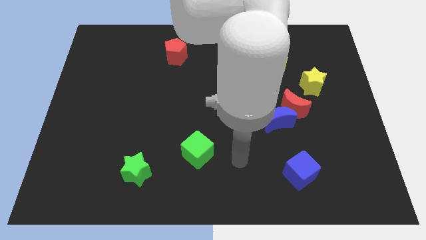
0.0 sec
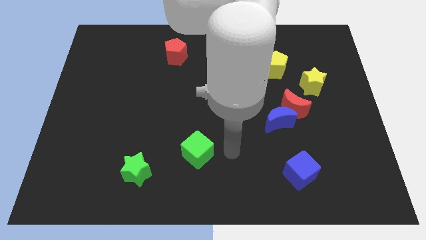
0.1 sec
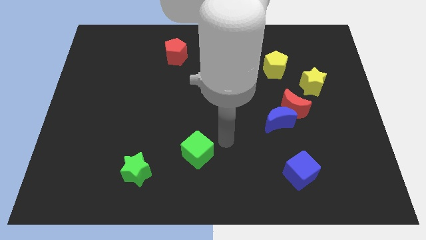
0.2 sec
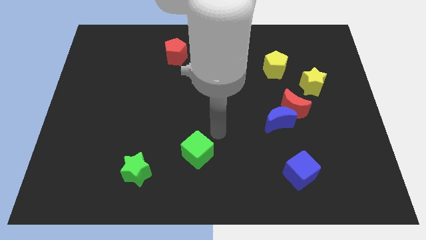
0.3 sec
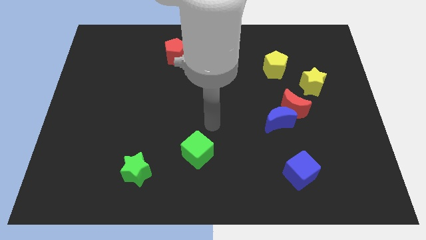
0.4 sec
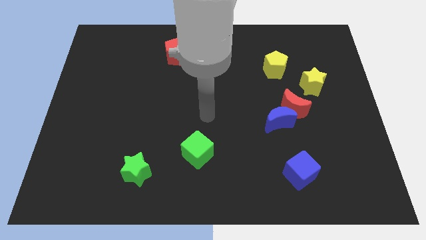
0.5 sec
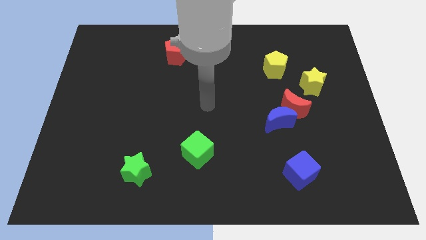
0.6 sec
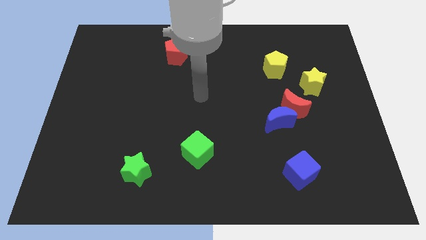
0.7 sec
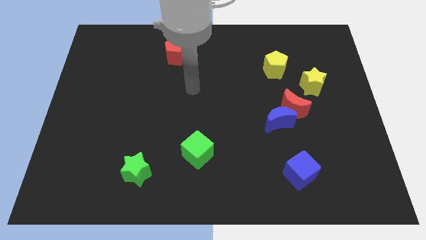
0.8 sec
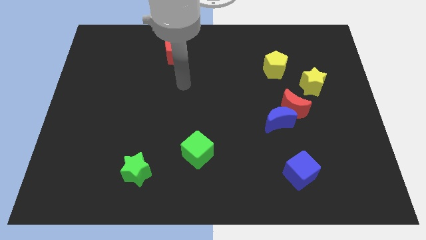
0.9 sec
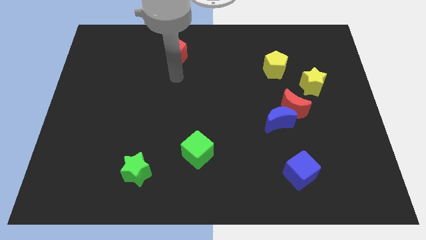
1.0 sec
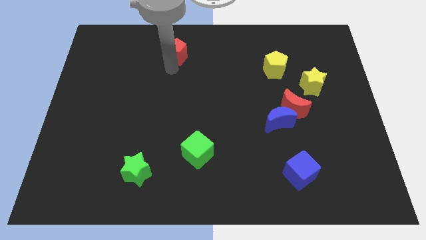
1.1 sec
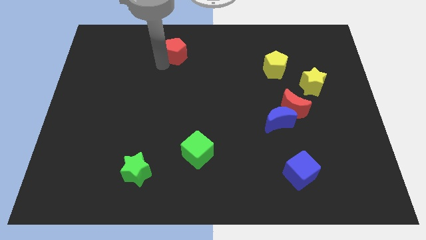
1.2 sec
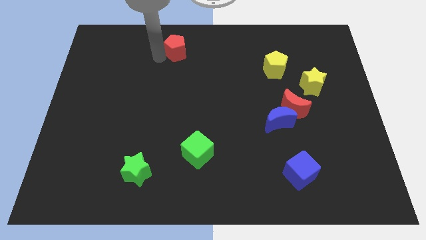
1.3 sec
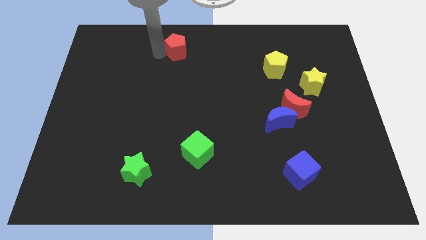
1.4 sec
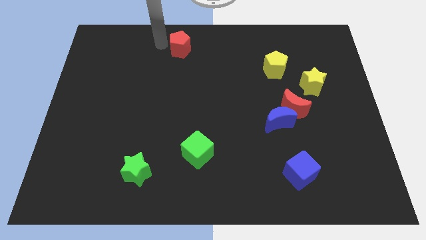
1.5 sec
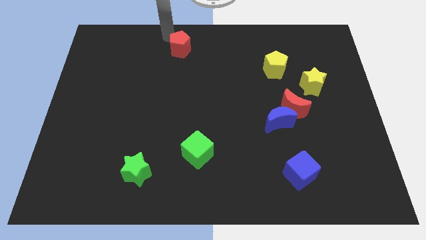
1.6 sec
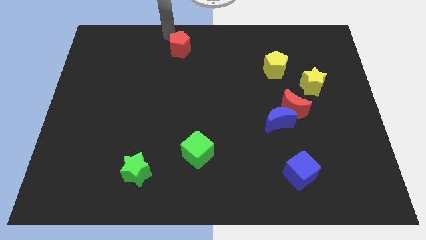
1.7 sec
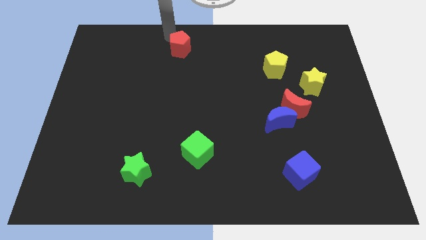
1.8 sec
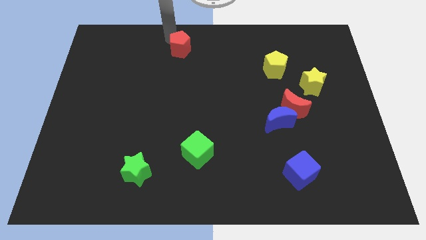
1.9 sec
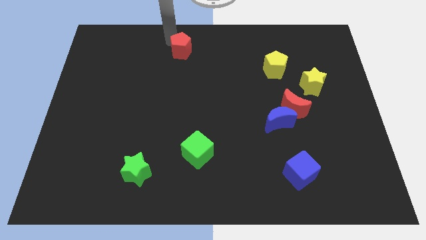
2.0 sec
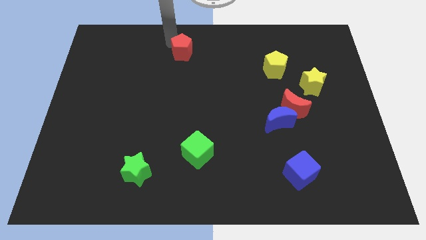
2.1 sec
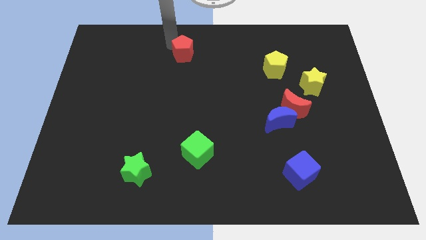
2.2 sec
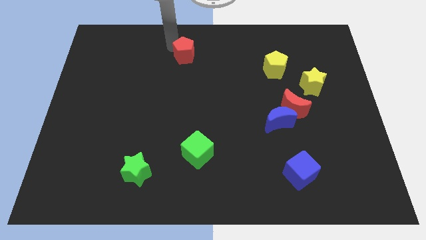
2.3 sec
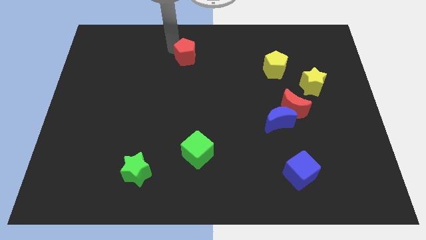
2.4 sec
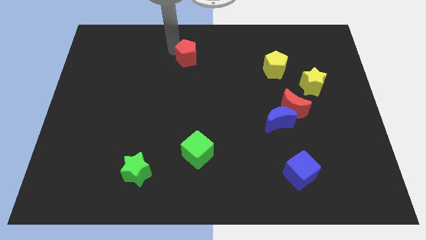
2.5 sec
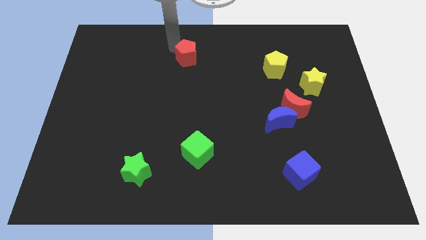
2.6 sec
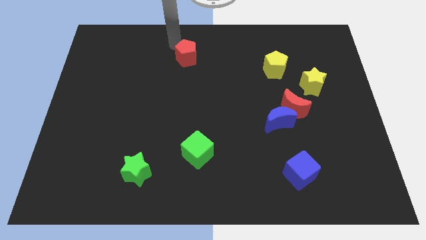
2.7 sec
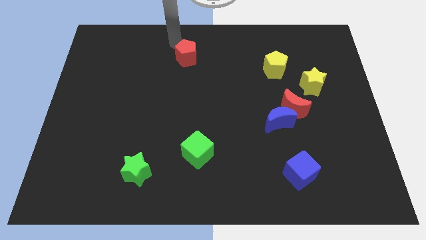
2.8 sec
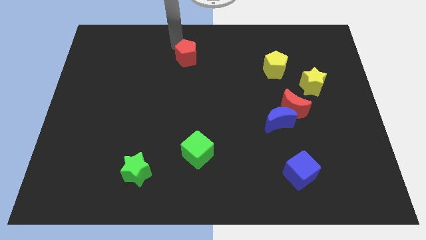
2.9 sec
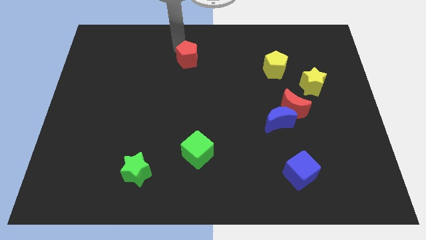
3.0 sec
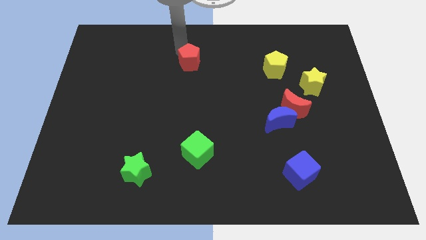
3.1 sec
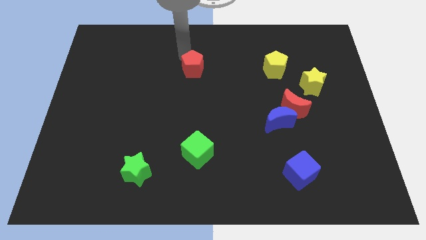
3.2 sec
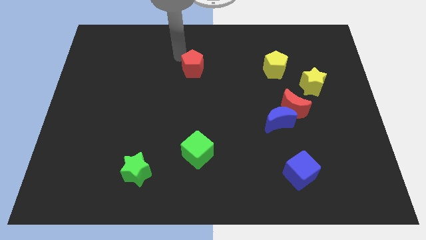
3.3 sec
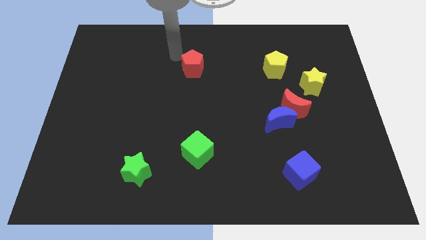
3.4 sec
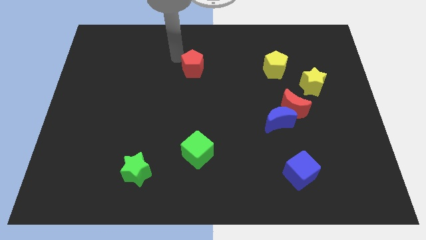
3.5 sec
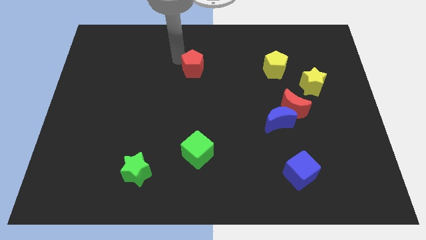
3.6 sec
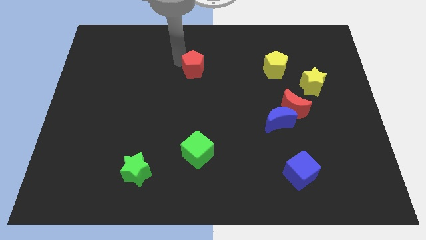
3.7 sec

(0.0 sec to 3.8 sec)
slide the red pentagon downwards and to the right somewhat

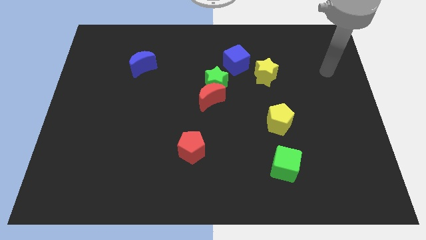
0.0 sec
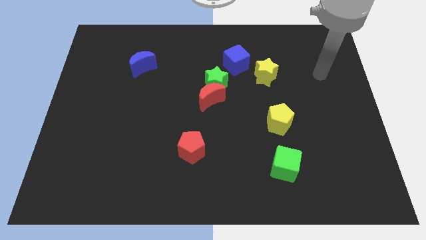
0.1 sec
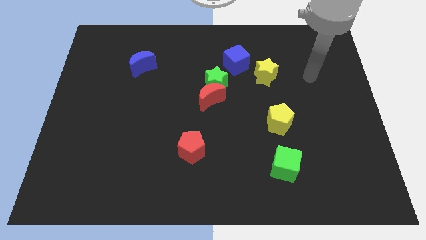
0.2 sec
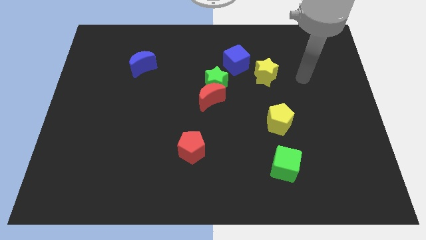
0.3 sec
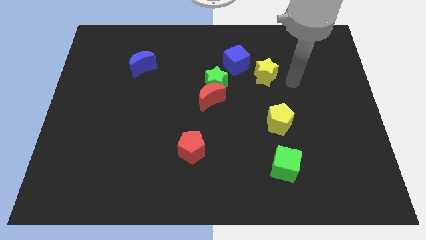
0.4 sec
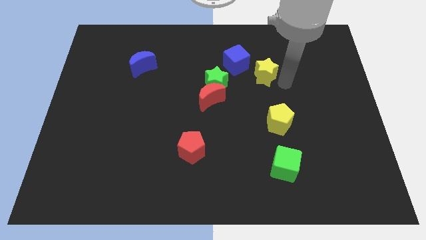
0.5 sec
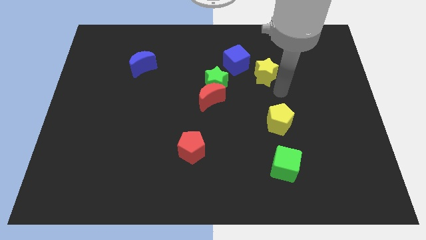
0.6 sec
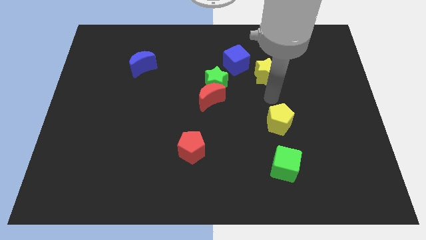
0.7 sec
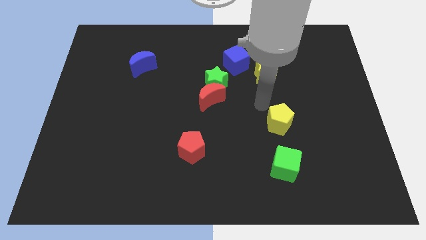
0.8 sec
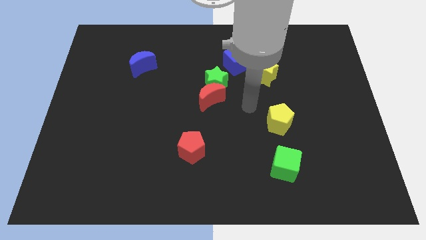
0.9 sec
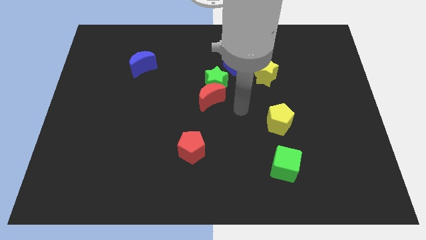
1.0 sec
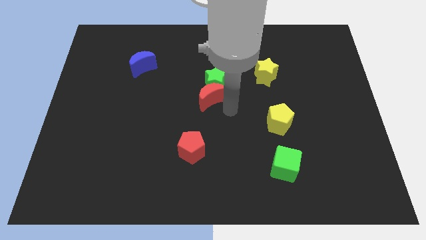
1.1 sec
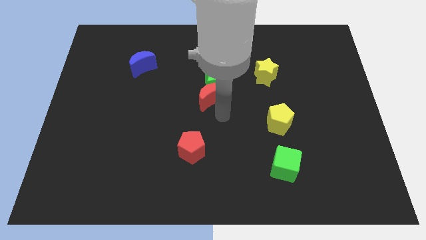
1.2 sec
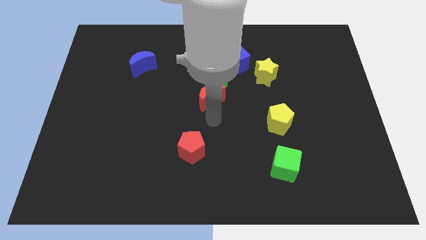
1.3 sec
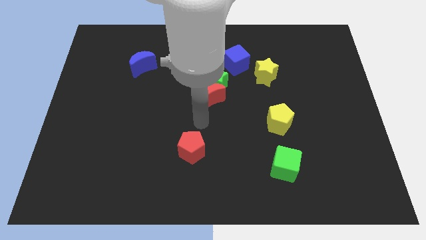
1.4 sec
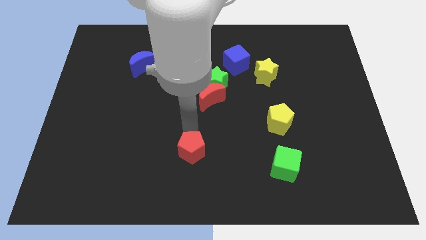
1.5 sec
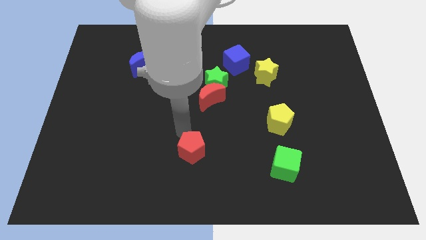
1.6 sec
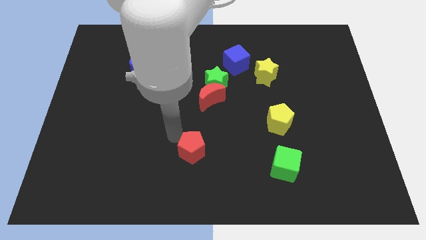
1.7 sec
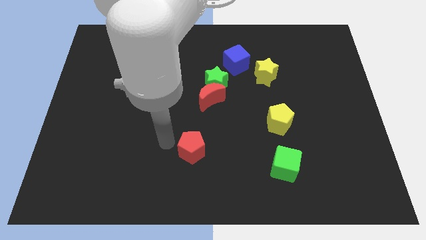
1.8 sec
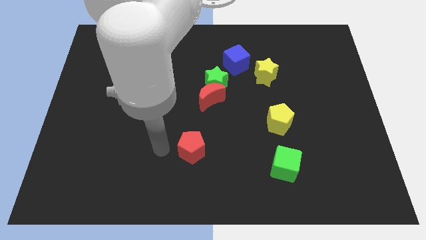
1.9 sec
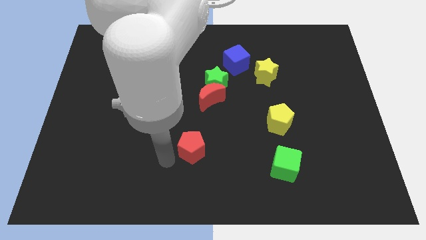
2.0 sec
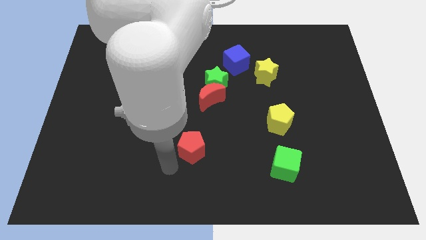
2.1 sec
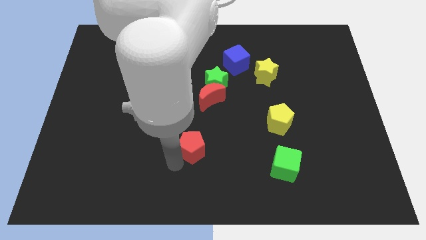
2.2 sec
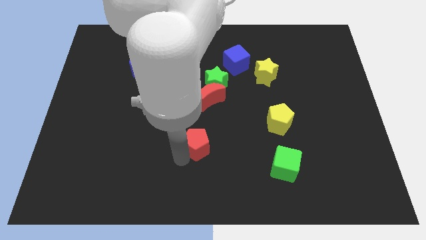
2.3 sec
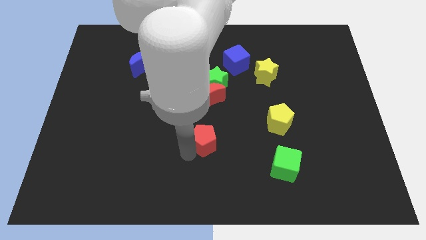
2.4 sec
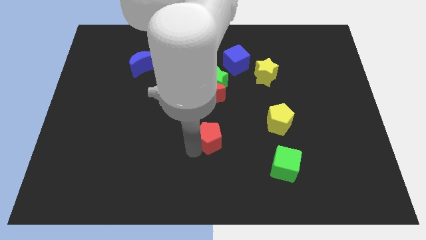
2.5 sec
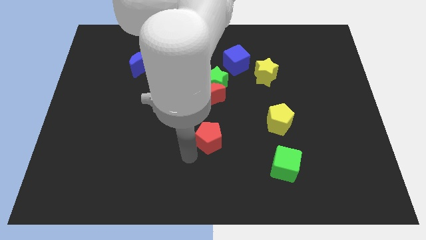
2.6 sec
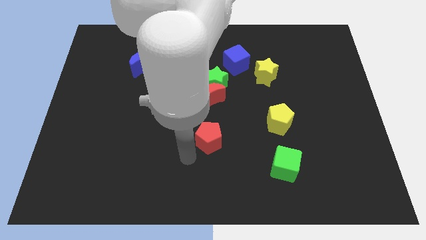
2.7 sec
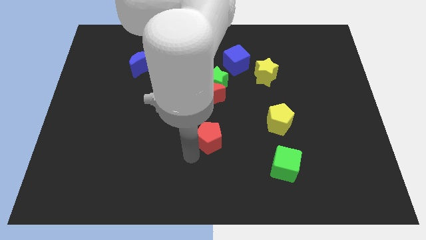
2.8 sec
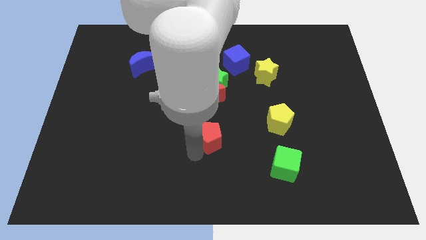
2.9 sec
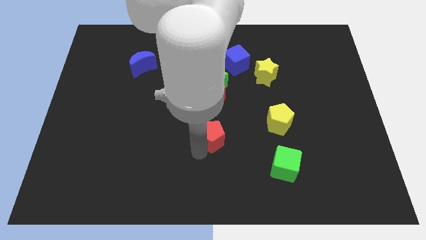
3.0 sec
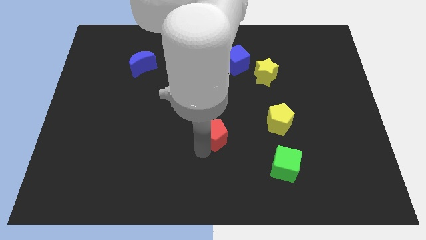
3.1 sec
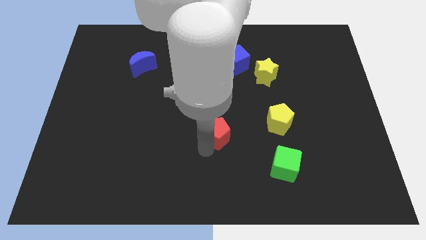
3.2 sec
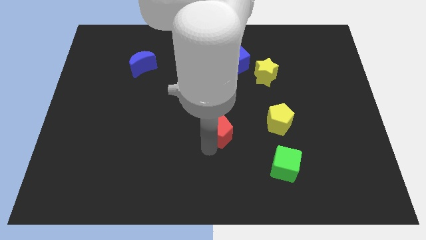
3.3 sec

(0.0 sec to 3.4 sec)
slightly slide the red pentagon upwards and then right

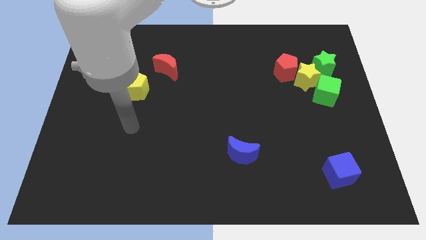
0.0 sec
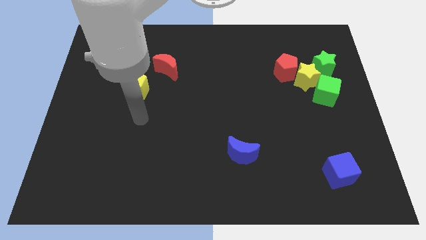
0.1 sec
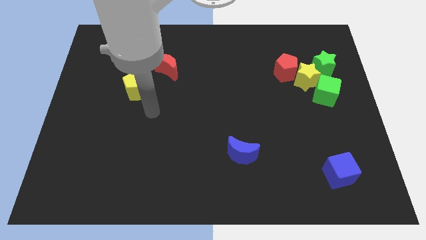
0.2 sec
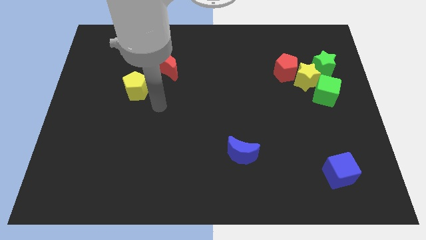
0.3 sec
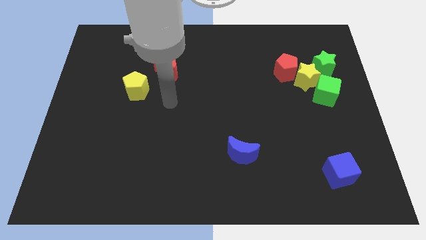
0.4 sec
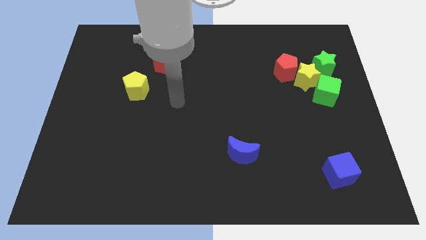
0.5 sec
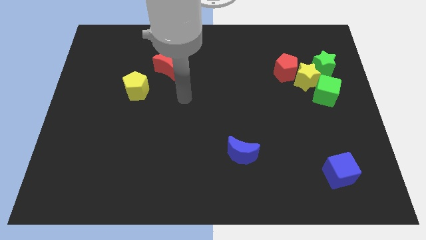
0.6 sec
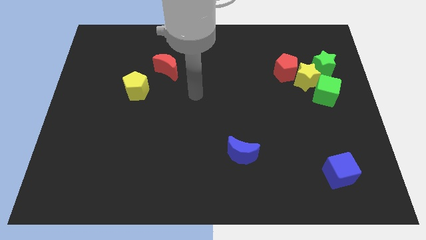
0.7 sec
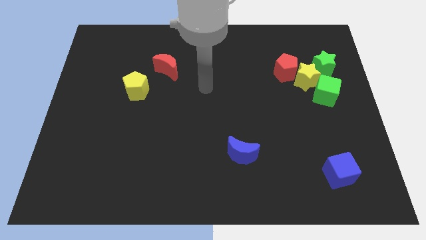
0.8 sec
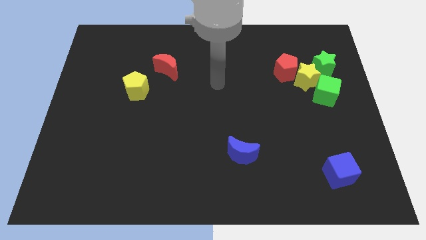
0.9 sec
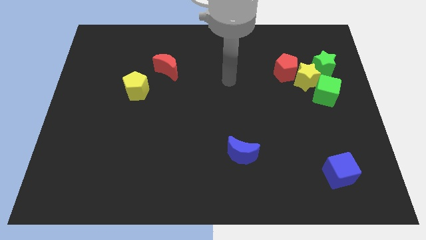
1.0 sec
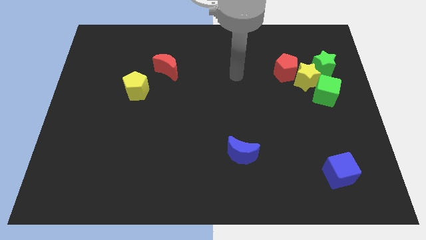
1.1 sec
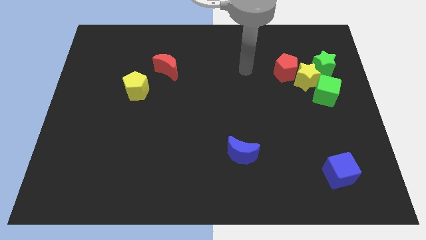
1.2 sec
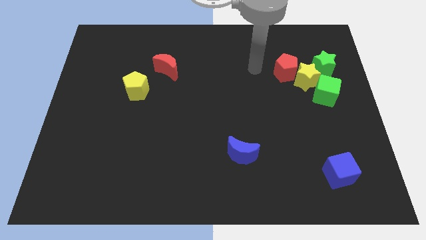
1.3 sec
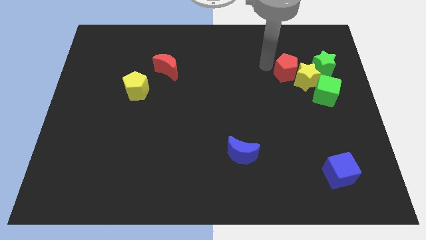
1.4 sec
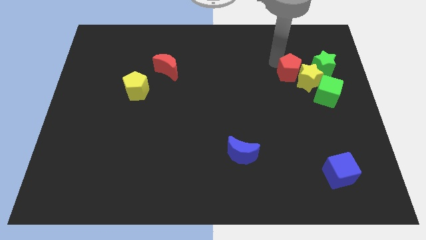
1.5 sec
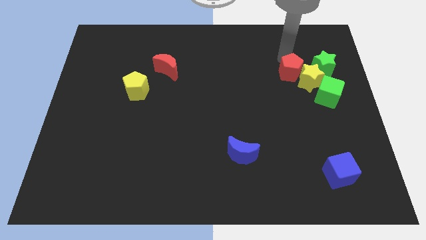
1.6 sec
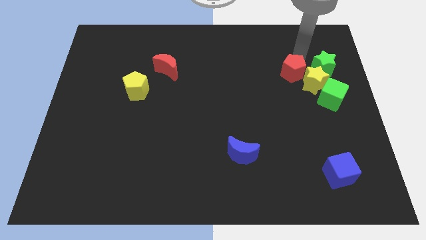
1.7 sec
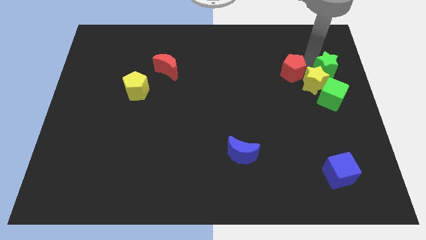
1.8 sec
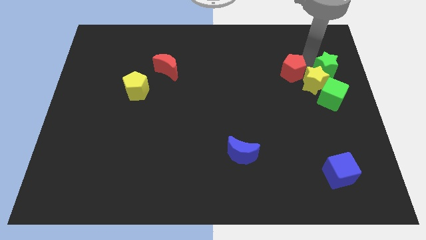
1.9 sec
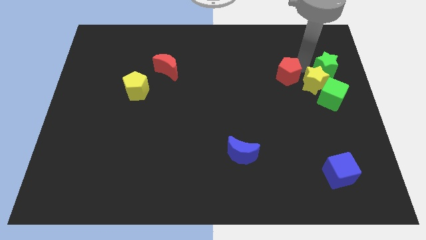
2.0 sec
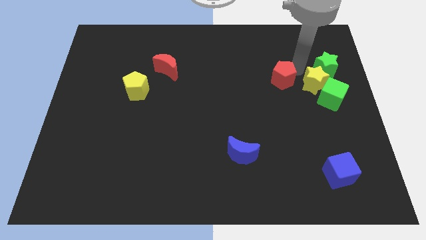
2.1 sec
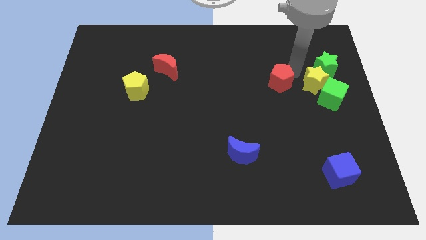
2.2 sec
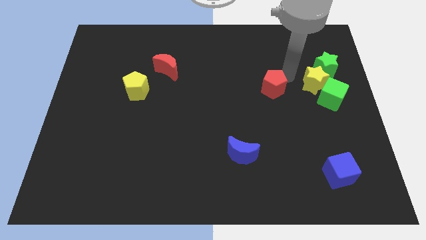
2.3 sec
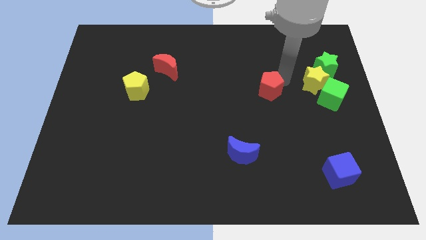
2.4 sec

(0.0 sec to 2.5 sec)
slightly push the red pentagon down and then left
